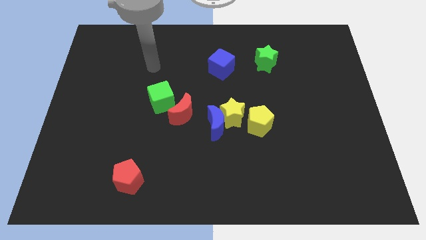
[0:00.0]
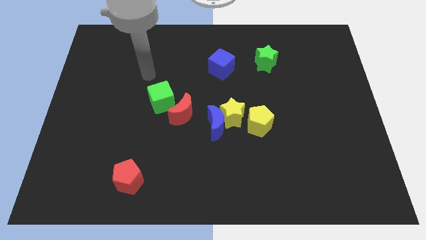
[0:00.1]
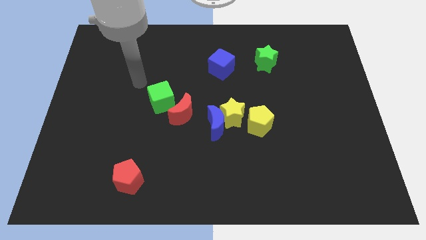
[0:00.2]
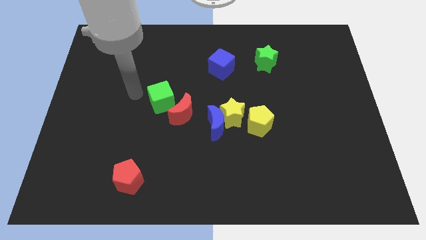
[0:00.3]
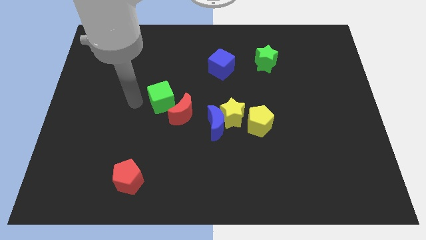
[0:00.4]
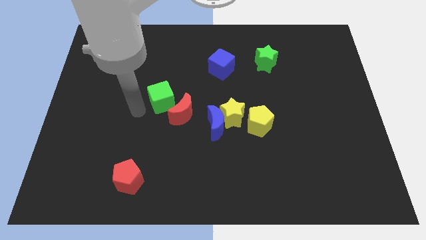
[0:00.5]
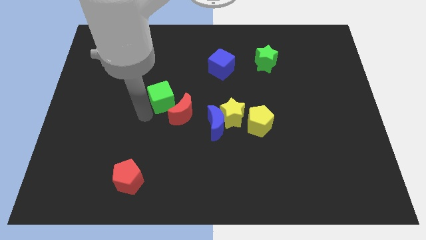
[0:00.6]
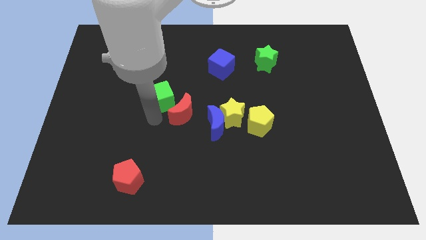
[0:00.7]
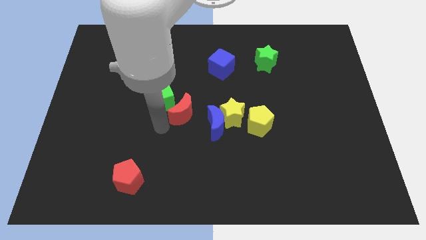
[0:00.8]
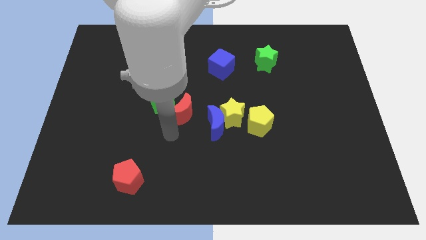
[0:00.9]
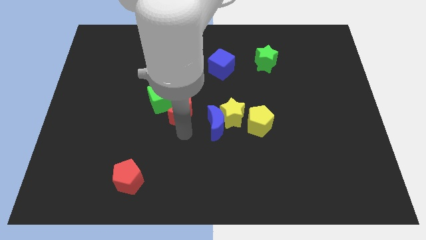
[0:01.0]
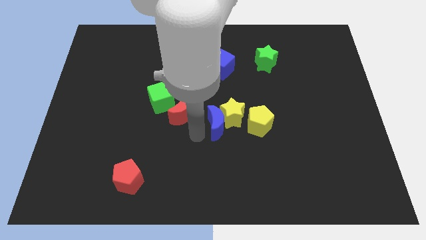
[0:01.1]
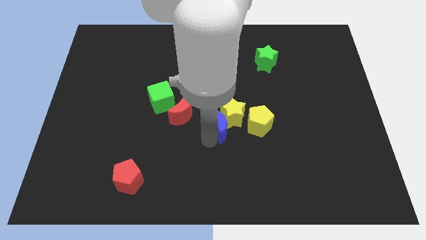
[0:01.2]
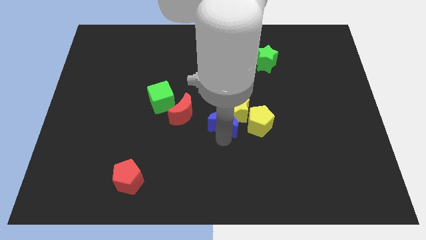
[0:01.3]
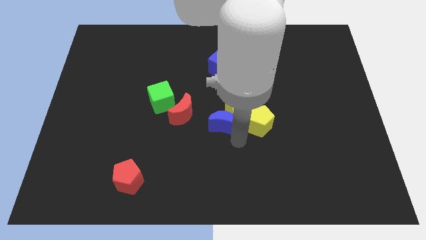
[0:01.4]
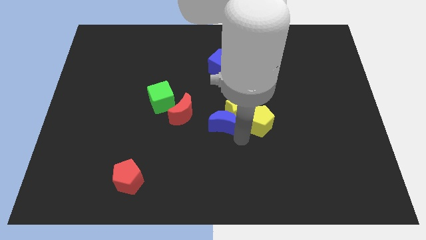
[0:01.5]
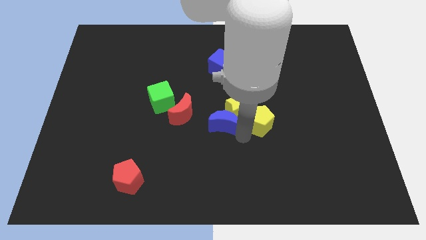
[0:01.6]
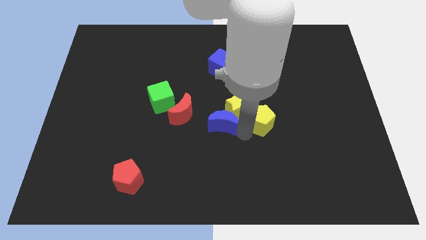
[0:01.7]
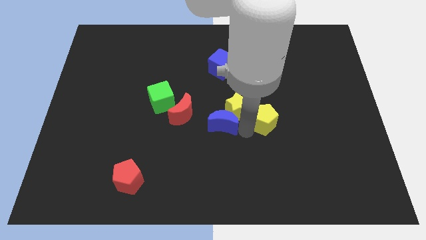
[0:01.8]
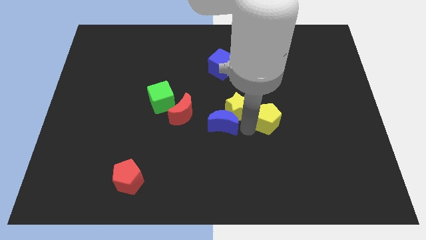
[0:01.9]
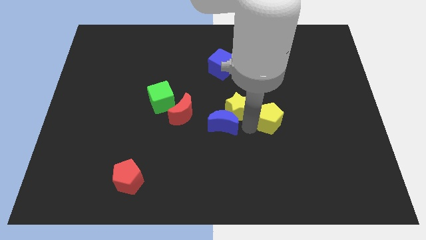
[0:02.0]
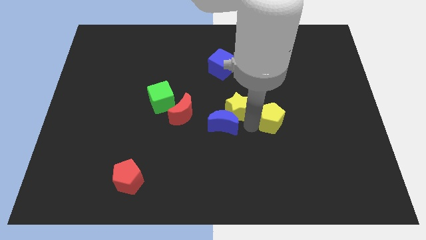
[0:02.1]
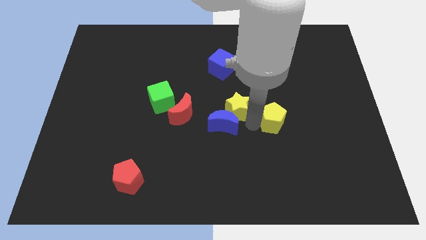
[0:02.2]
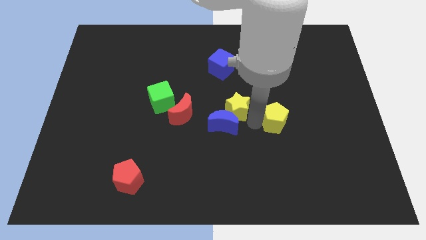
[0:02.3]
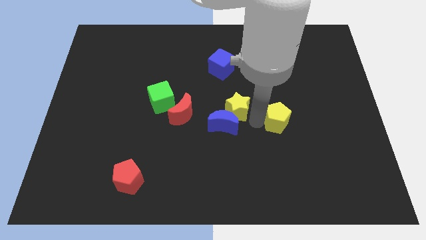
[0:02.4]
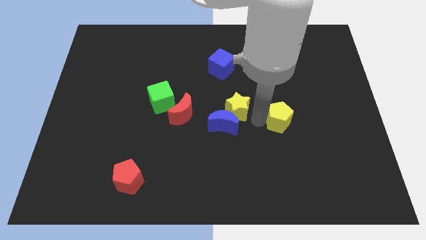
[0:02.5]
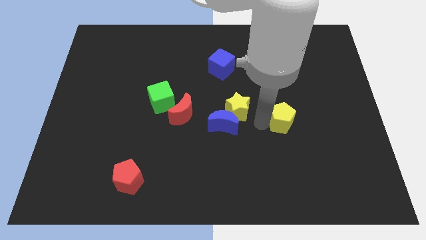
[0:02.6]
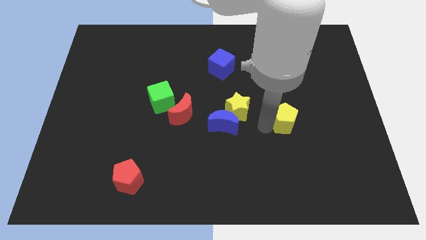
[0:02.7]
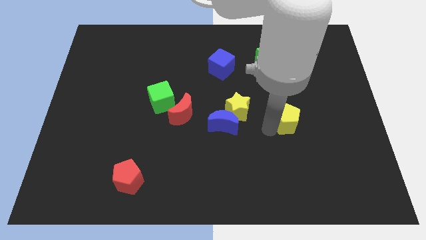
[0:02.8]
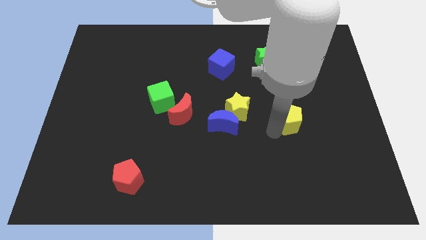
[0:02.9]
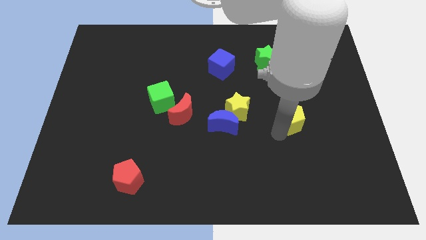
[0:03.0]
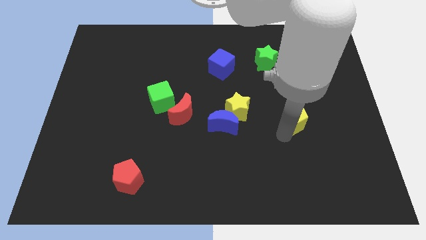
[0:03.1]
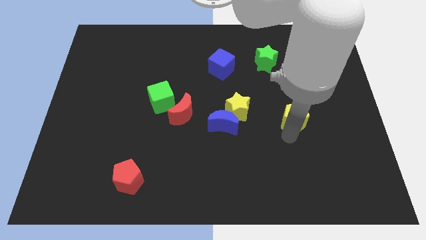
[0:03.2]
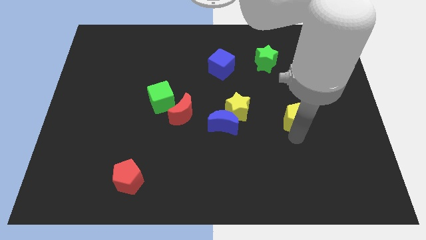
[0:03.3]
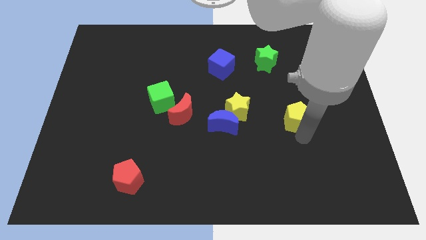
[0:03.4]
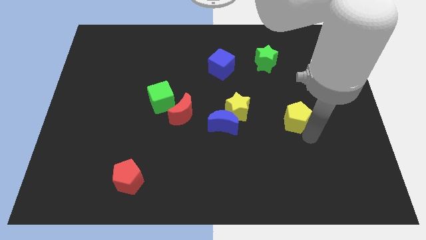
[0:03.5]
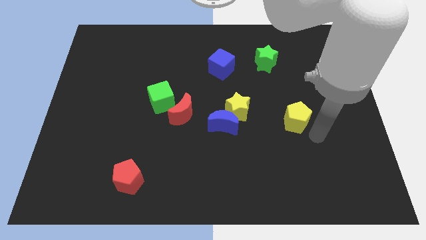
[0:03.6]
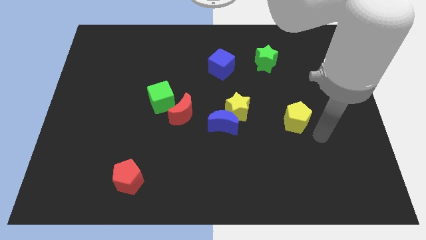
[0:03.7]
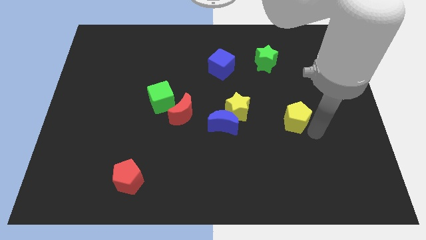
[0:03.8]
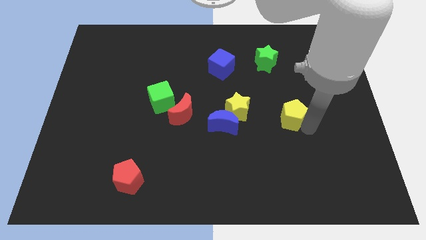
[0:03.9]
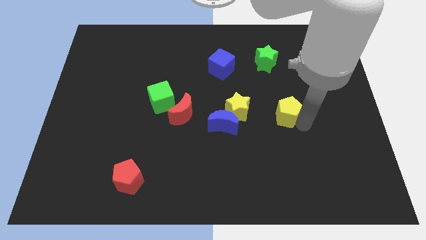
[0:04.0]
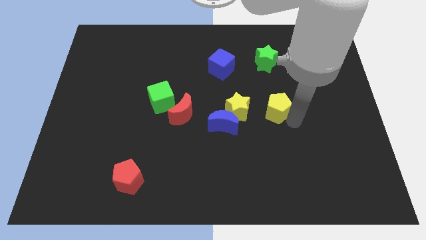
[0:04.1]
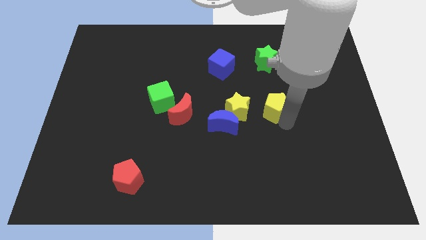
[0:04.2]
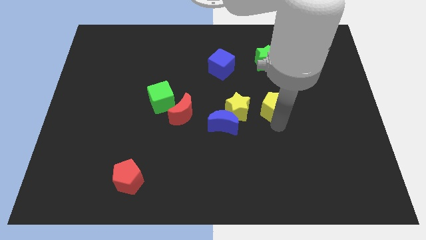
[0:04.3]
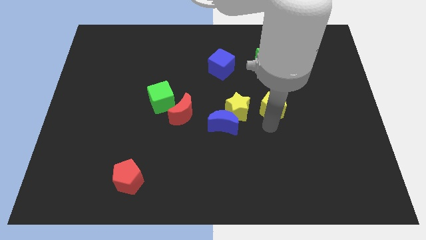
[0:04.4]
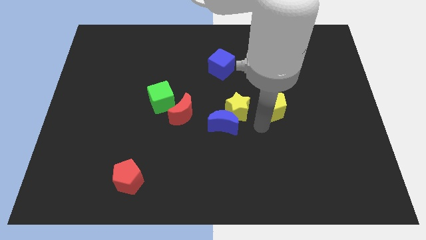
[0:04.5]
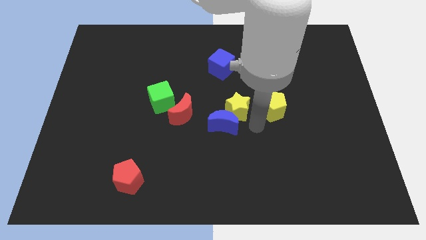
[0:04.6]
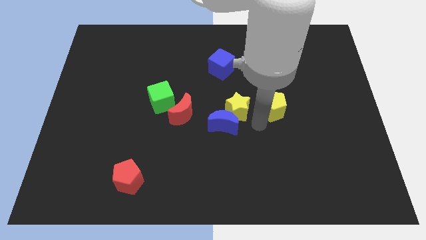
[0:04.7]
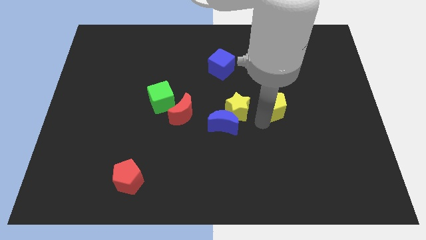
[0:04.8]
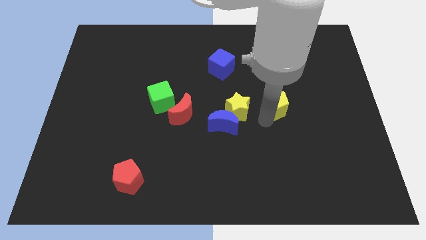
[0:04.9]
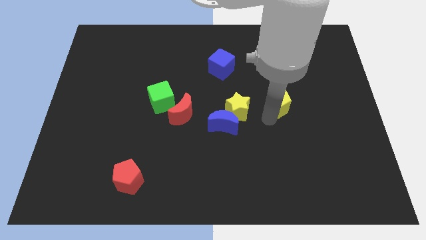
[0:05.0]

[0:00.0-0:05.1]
slide the yellow pentagon upwards and right diagonally a little bit

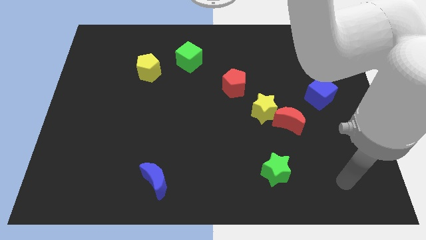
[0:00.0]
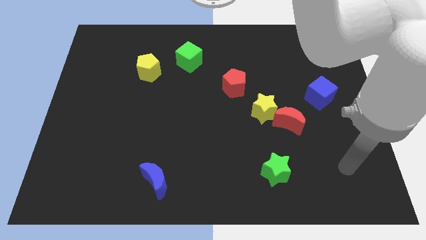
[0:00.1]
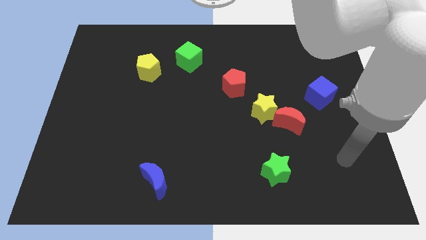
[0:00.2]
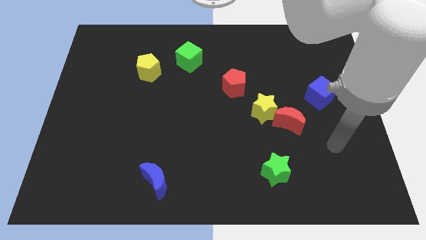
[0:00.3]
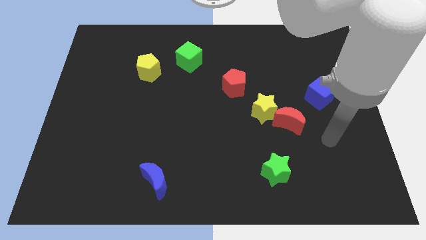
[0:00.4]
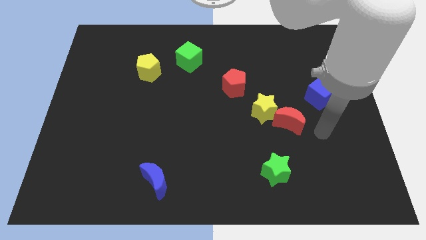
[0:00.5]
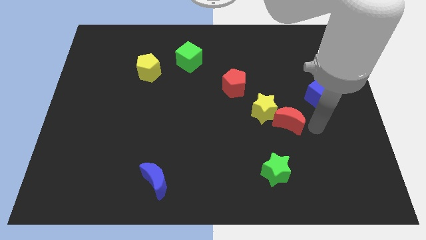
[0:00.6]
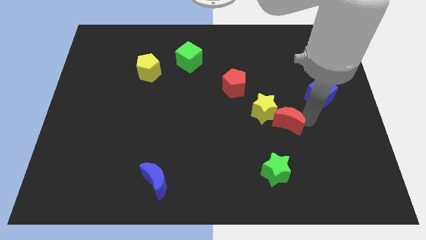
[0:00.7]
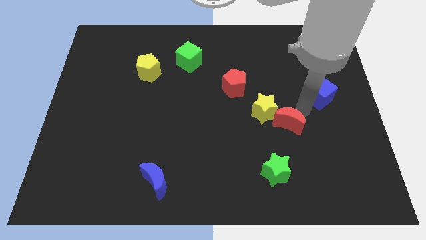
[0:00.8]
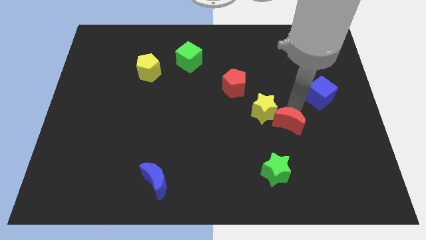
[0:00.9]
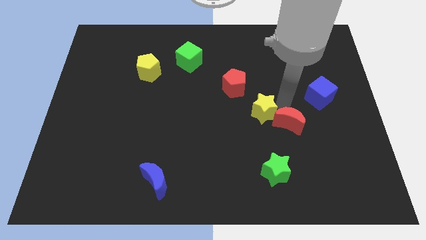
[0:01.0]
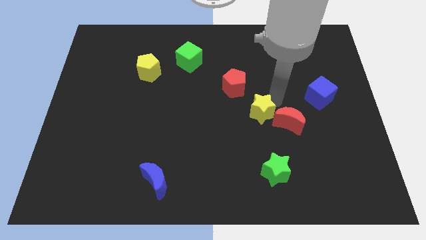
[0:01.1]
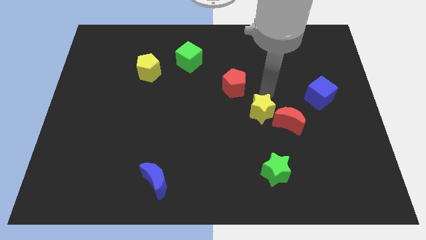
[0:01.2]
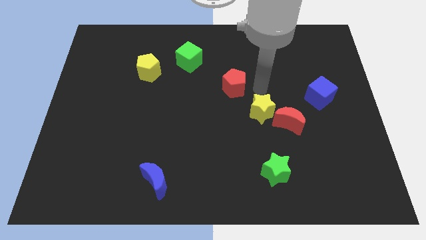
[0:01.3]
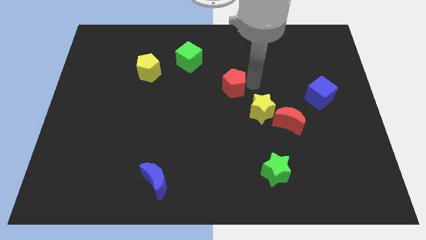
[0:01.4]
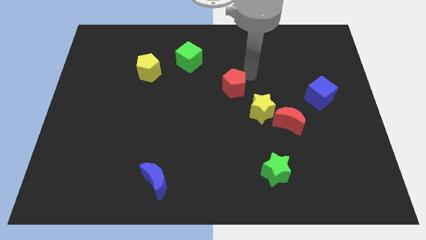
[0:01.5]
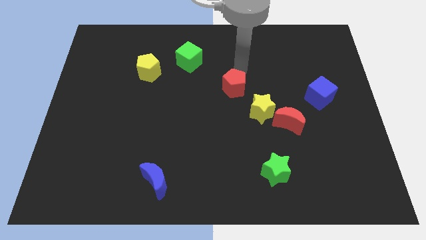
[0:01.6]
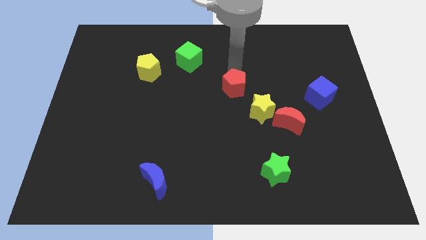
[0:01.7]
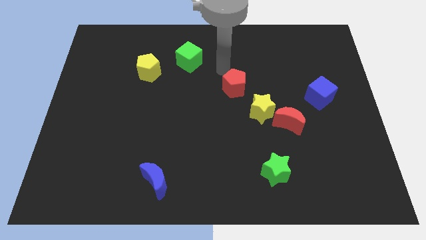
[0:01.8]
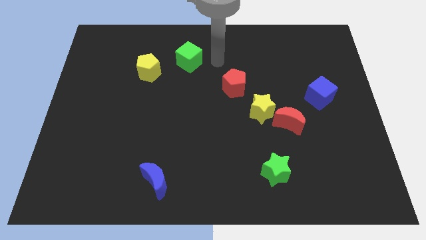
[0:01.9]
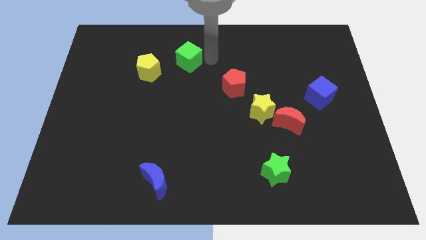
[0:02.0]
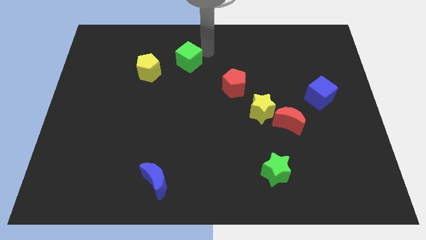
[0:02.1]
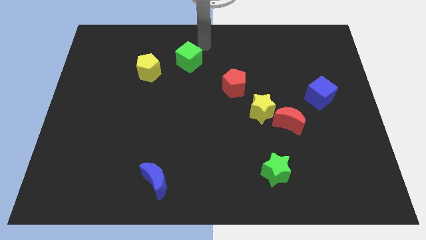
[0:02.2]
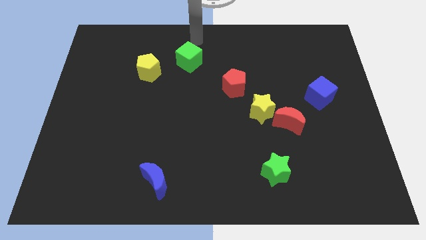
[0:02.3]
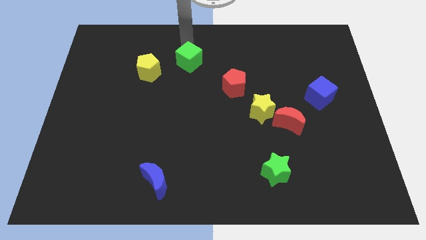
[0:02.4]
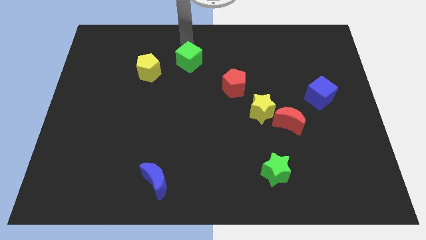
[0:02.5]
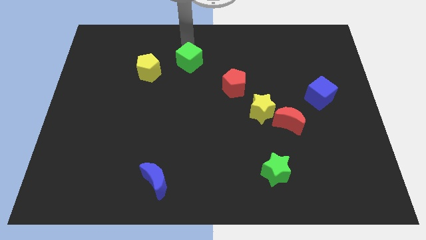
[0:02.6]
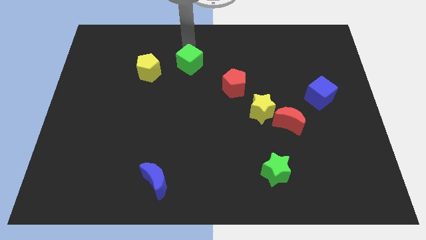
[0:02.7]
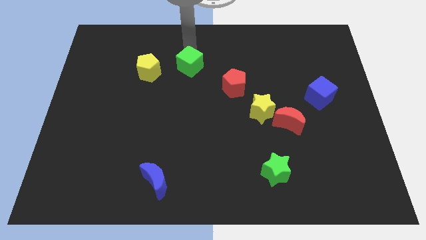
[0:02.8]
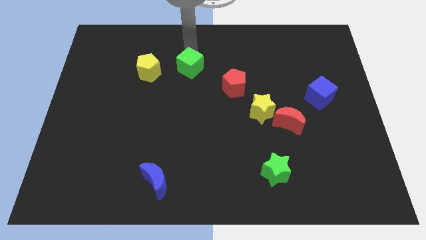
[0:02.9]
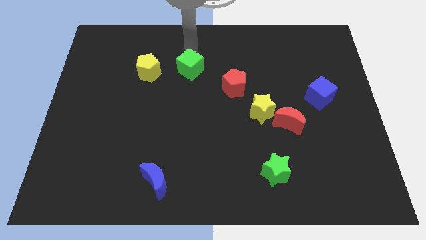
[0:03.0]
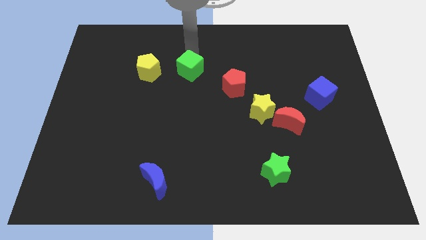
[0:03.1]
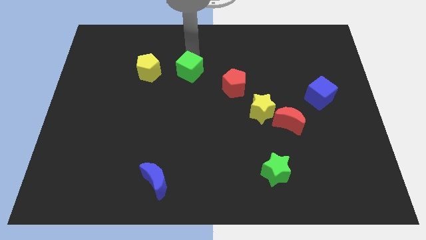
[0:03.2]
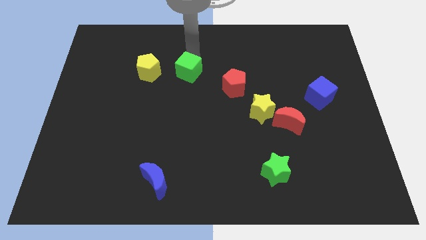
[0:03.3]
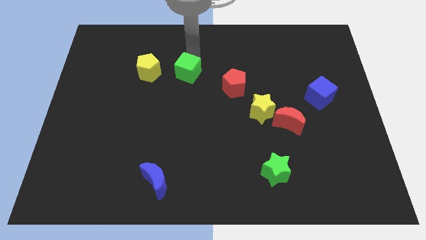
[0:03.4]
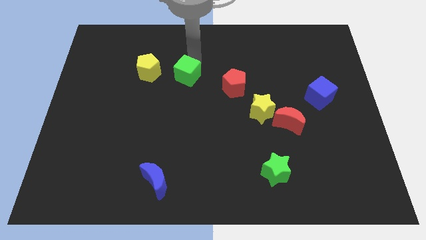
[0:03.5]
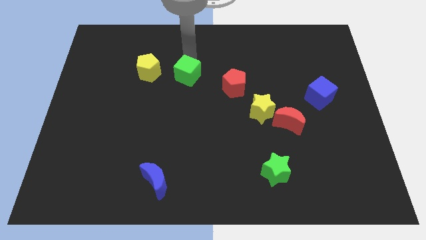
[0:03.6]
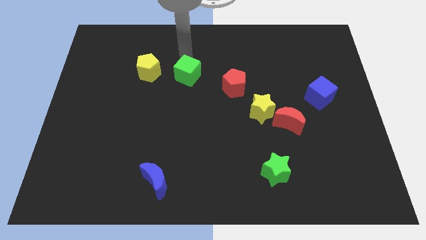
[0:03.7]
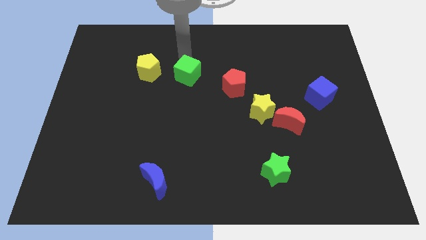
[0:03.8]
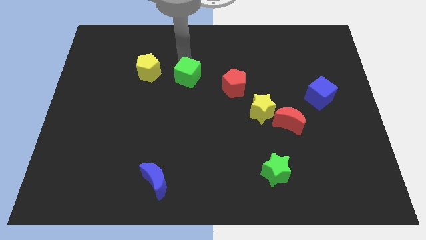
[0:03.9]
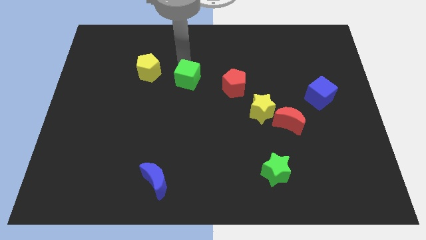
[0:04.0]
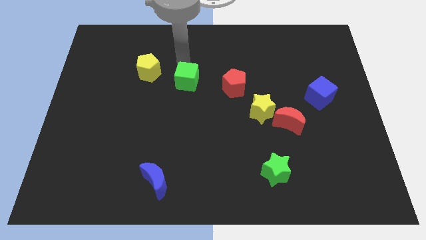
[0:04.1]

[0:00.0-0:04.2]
slightly move the green cube downwards
